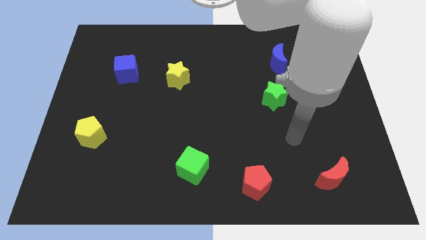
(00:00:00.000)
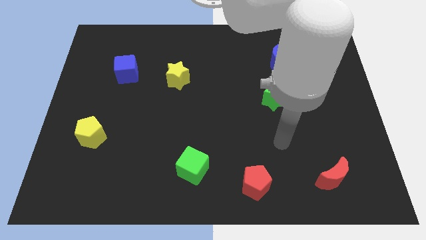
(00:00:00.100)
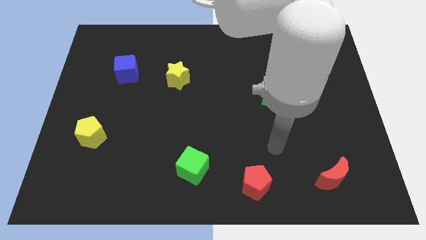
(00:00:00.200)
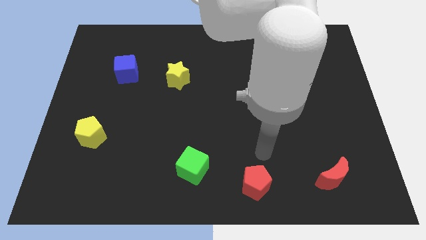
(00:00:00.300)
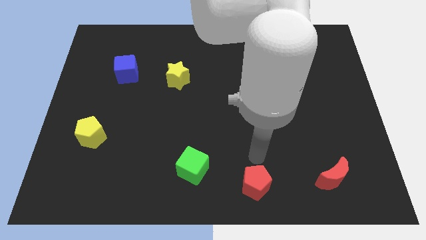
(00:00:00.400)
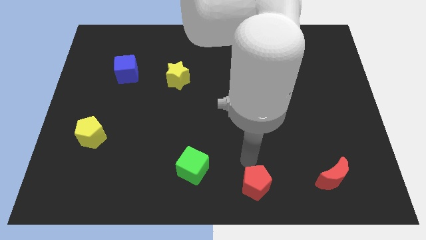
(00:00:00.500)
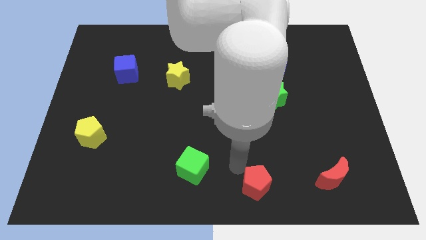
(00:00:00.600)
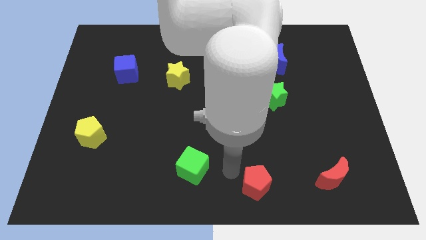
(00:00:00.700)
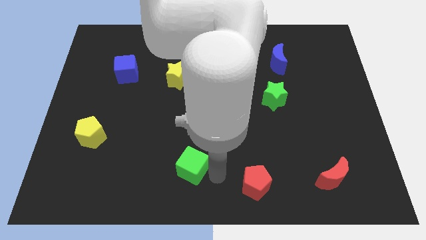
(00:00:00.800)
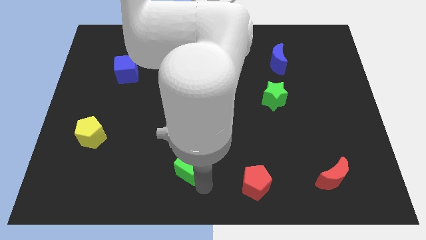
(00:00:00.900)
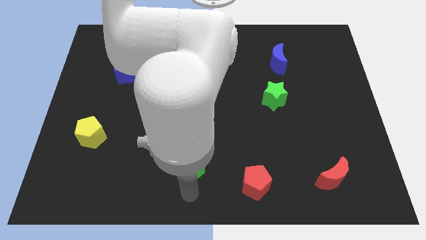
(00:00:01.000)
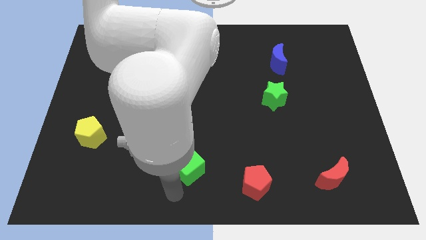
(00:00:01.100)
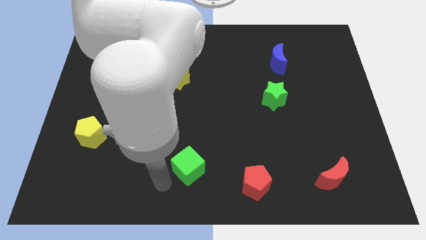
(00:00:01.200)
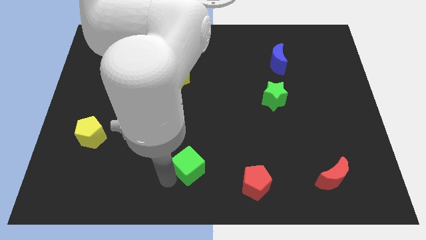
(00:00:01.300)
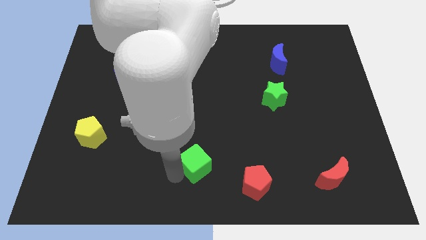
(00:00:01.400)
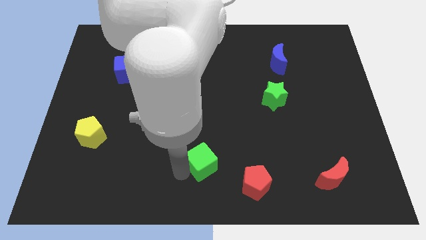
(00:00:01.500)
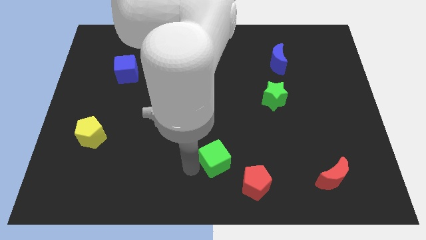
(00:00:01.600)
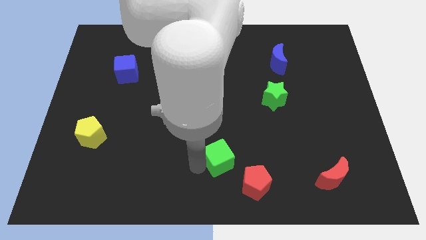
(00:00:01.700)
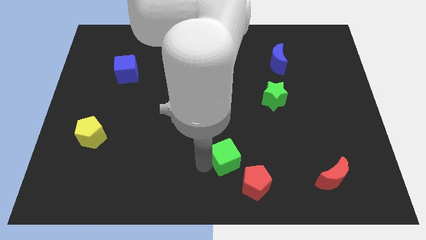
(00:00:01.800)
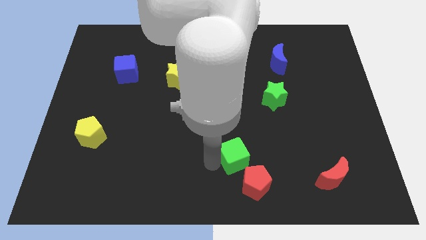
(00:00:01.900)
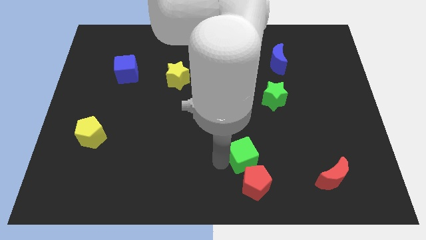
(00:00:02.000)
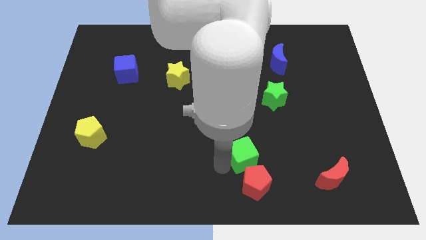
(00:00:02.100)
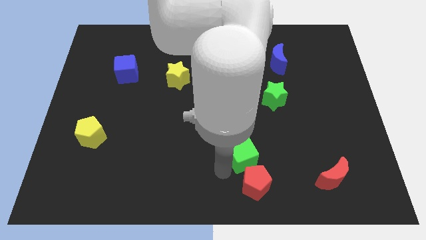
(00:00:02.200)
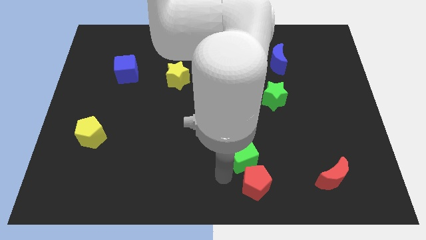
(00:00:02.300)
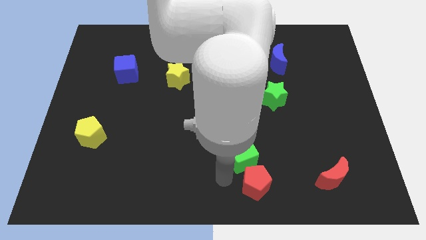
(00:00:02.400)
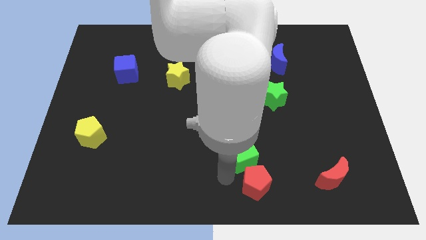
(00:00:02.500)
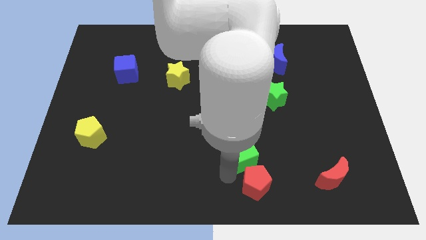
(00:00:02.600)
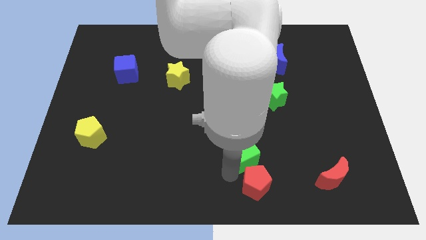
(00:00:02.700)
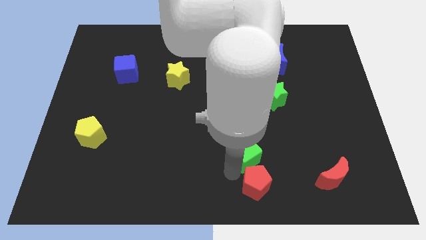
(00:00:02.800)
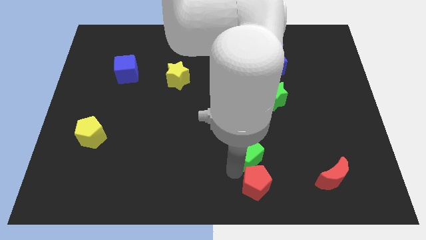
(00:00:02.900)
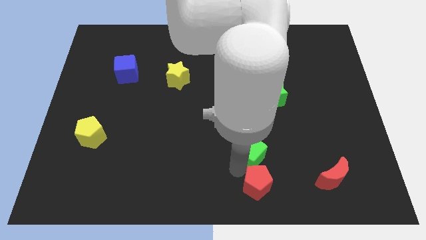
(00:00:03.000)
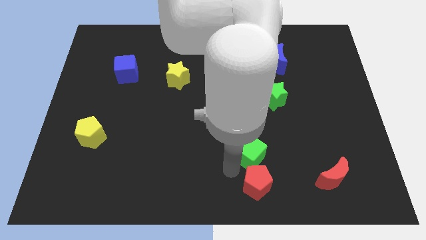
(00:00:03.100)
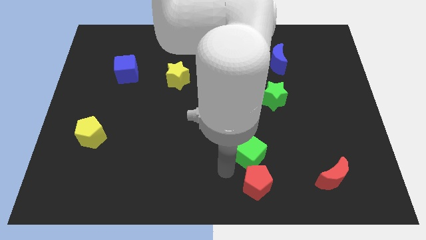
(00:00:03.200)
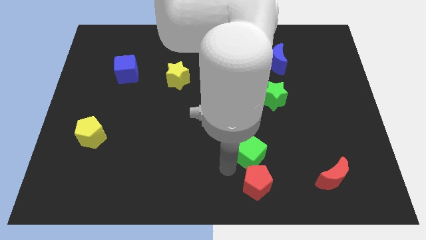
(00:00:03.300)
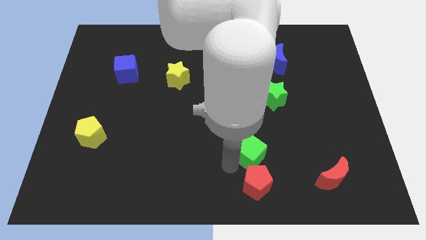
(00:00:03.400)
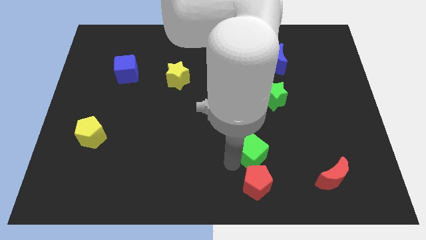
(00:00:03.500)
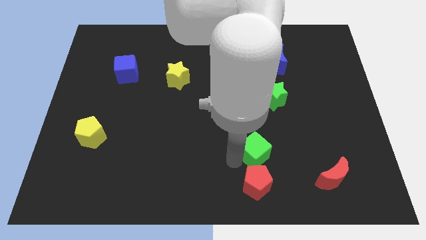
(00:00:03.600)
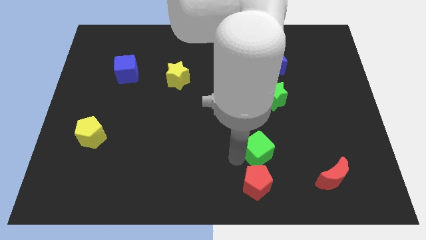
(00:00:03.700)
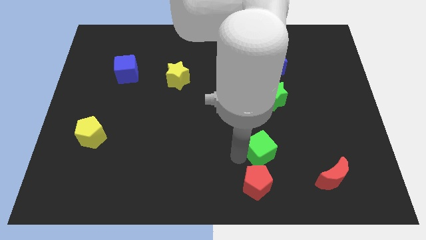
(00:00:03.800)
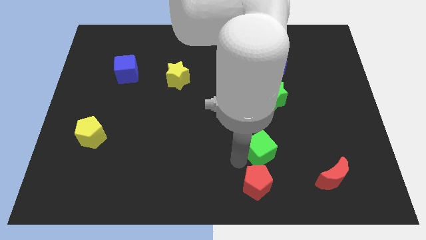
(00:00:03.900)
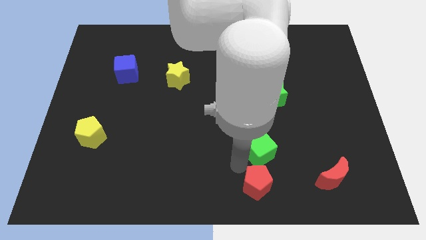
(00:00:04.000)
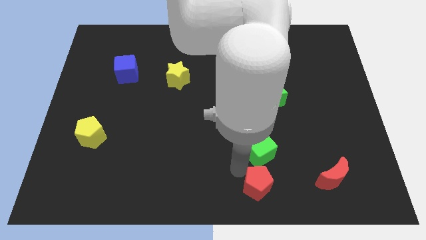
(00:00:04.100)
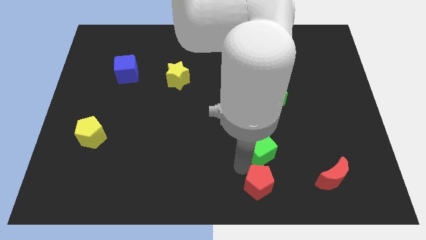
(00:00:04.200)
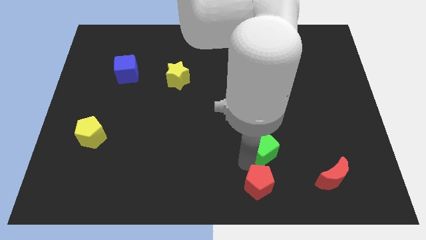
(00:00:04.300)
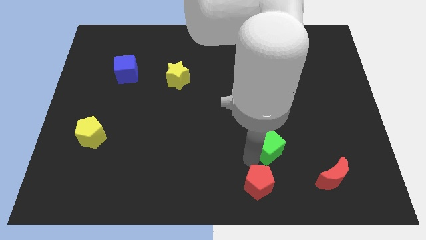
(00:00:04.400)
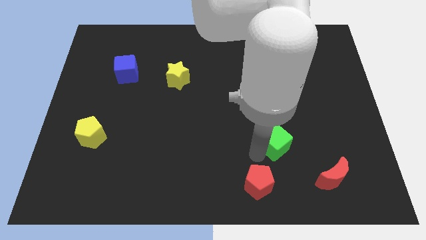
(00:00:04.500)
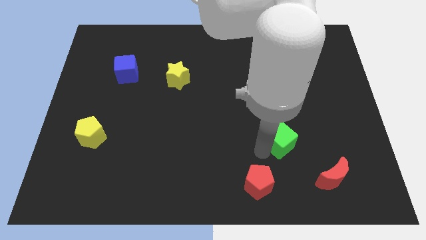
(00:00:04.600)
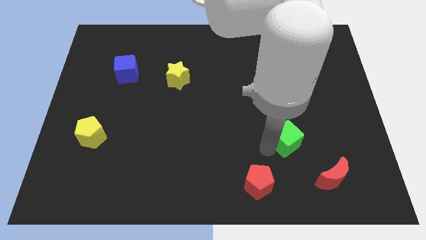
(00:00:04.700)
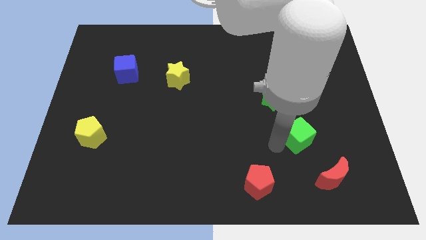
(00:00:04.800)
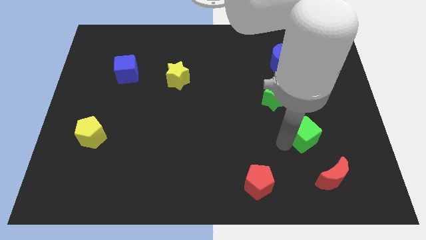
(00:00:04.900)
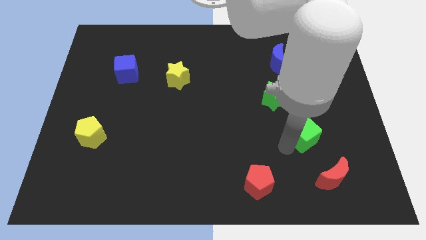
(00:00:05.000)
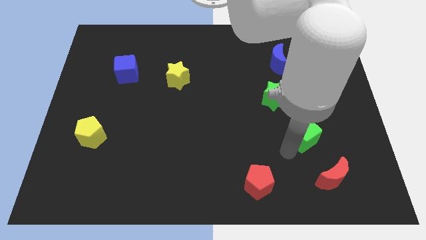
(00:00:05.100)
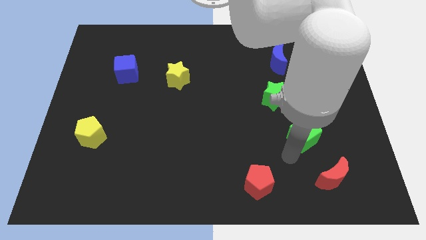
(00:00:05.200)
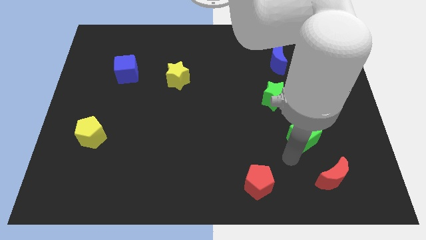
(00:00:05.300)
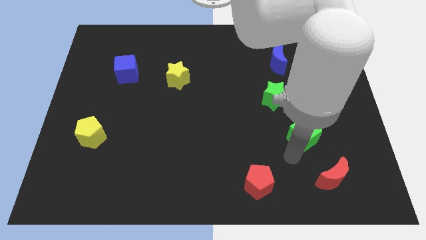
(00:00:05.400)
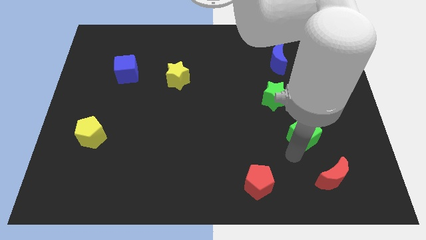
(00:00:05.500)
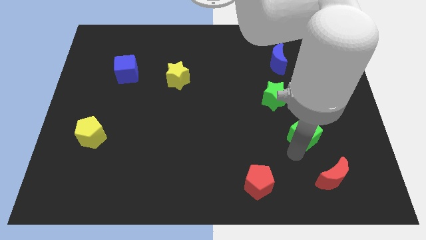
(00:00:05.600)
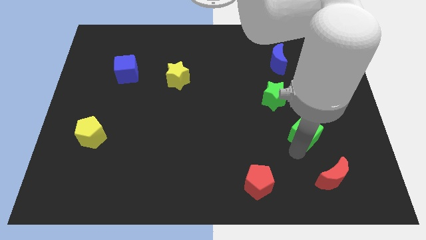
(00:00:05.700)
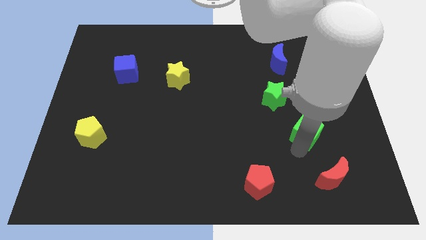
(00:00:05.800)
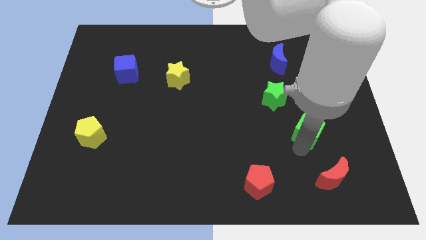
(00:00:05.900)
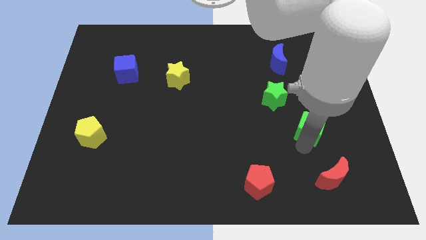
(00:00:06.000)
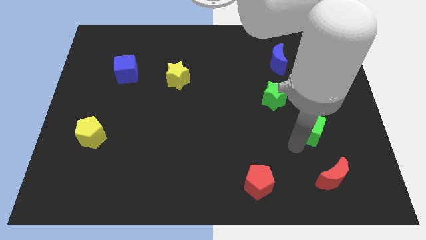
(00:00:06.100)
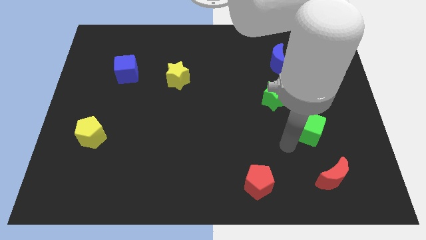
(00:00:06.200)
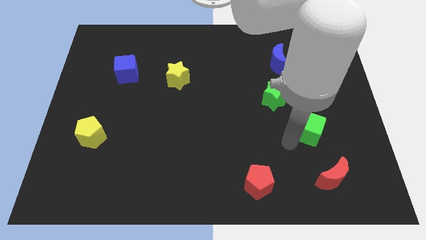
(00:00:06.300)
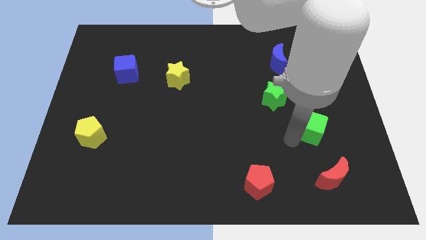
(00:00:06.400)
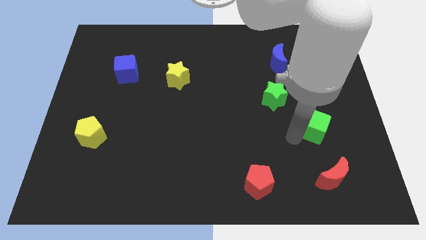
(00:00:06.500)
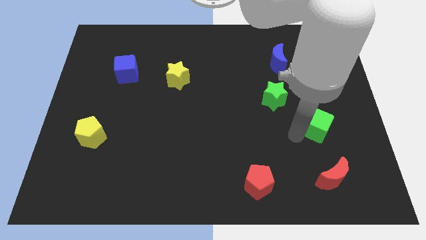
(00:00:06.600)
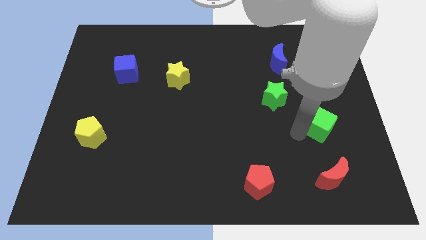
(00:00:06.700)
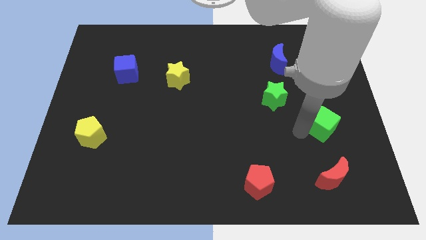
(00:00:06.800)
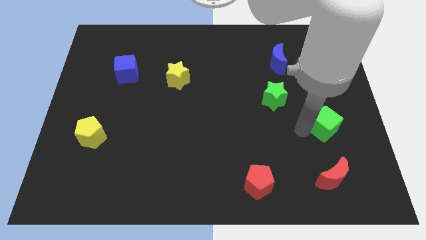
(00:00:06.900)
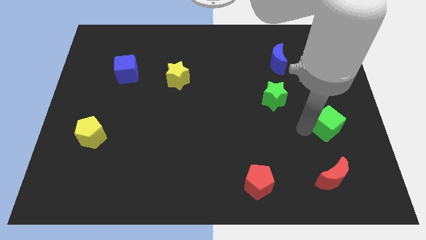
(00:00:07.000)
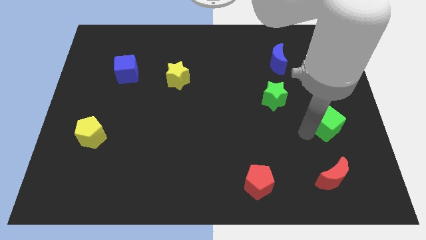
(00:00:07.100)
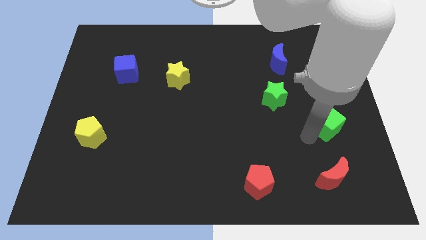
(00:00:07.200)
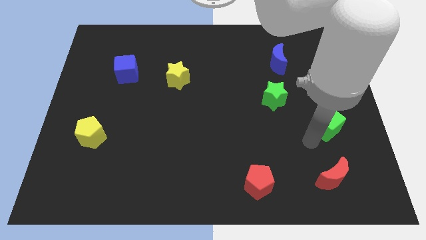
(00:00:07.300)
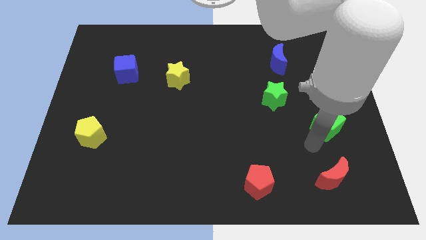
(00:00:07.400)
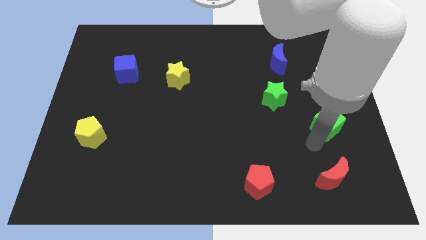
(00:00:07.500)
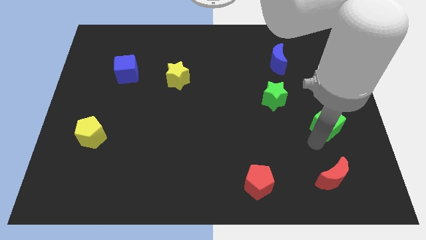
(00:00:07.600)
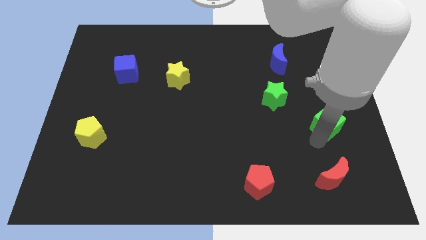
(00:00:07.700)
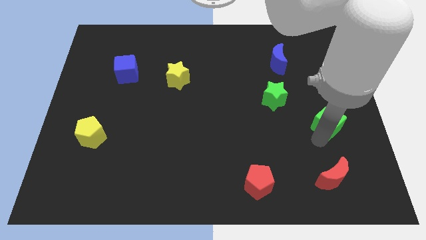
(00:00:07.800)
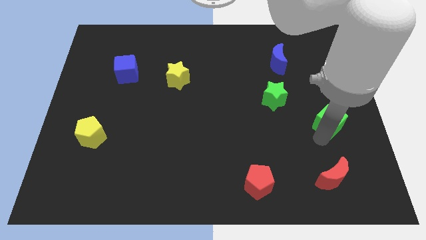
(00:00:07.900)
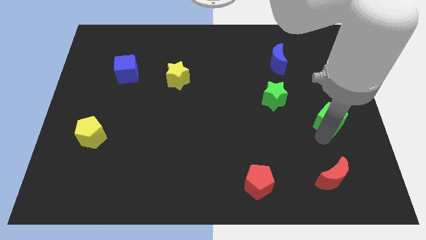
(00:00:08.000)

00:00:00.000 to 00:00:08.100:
move the green cube to the center right
